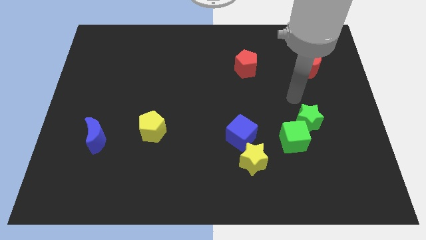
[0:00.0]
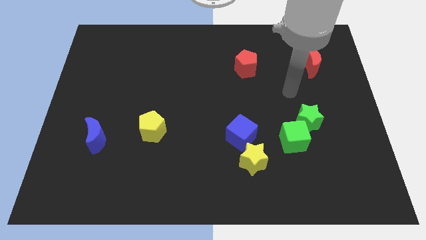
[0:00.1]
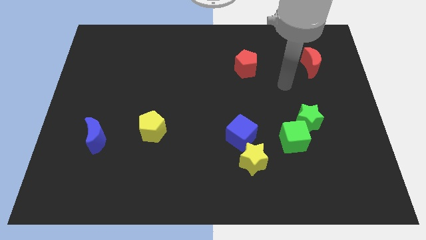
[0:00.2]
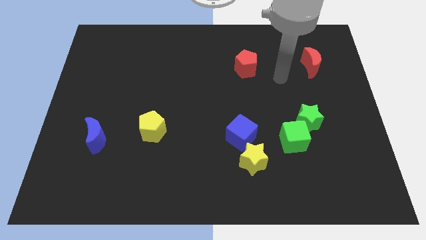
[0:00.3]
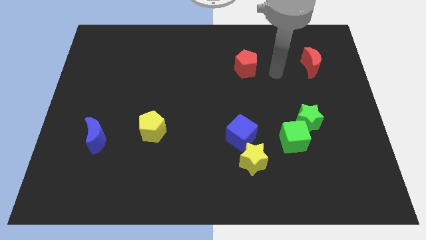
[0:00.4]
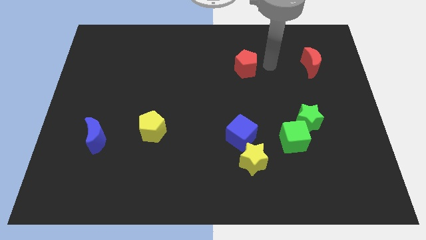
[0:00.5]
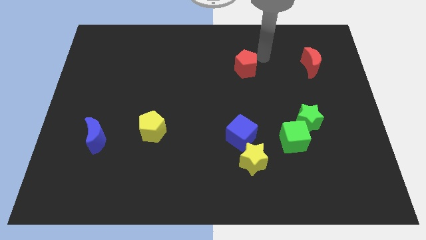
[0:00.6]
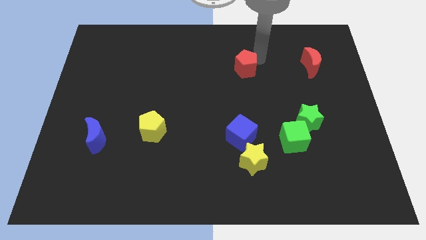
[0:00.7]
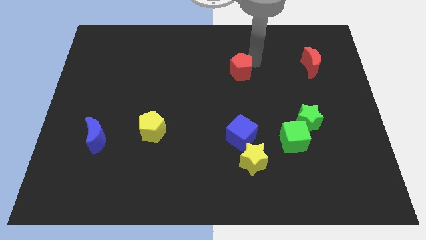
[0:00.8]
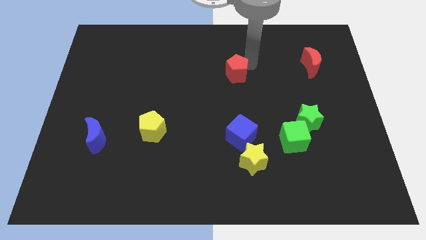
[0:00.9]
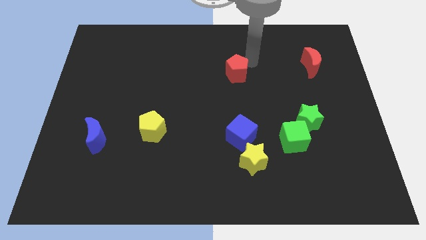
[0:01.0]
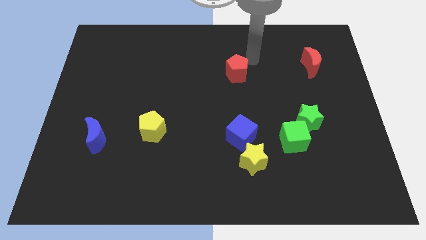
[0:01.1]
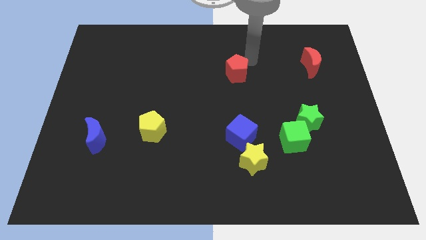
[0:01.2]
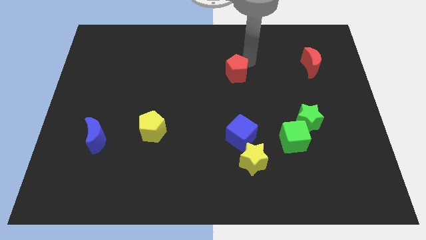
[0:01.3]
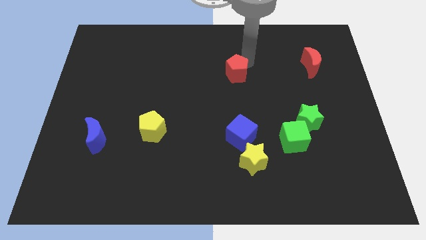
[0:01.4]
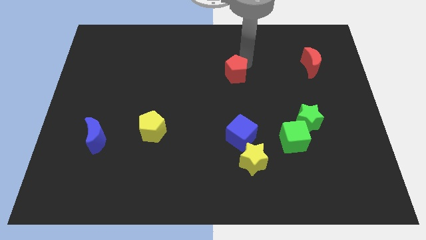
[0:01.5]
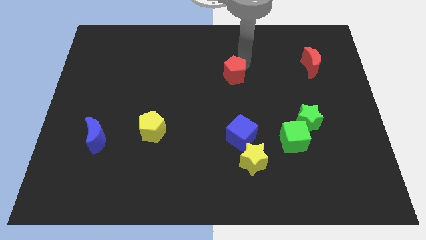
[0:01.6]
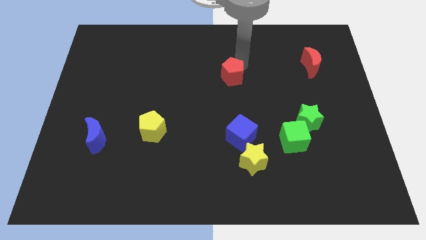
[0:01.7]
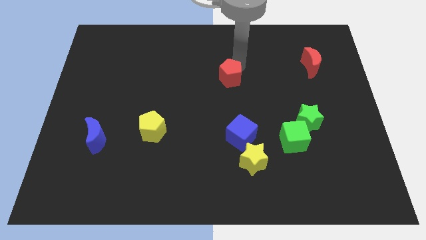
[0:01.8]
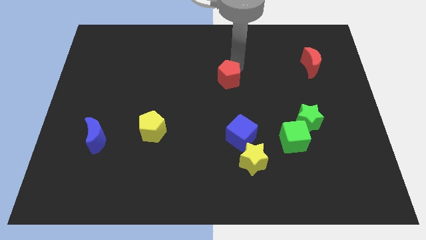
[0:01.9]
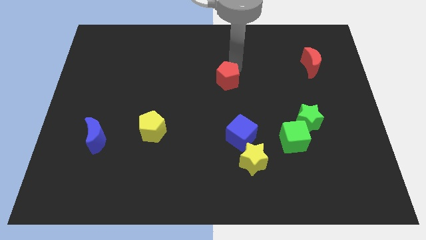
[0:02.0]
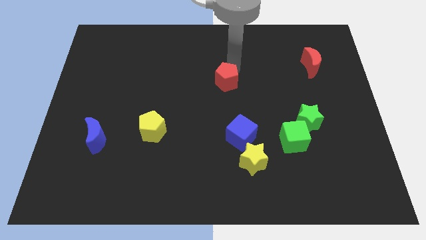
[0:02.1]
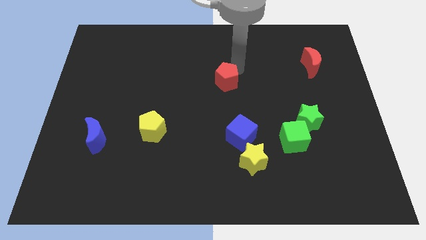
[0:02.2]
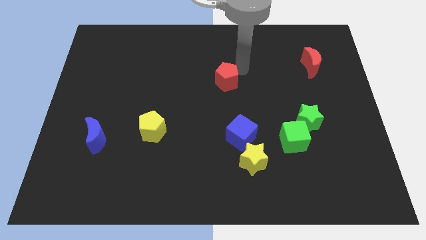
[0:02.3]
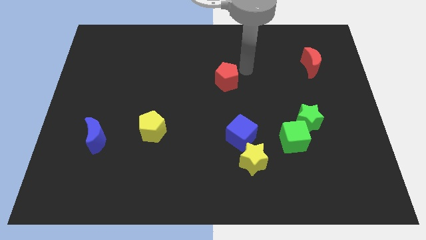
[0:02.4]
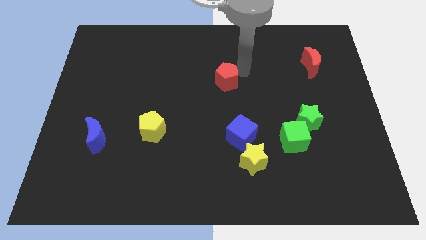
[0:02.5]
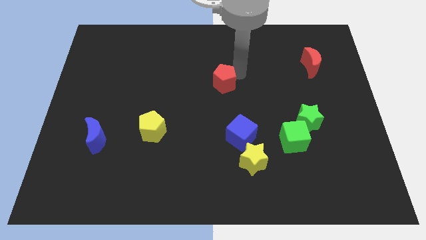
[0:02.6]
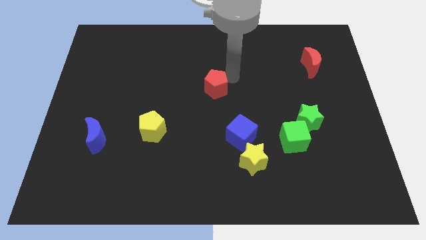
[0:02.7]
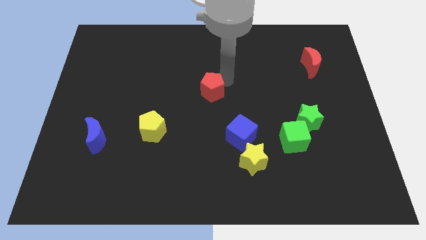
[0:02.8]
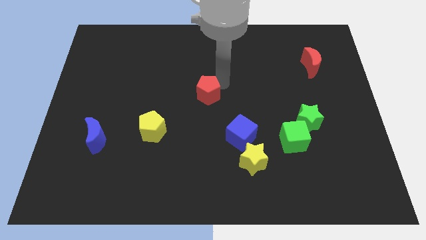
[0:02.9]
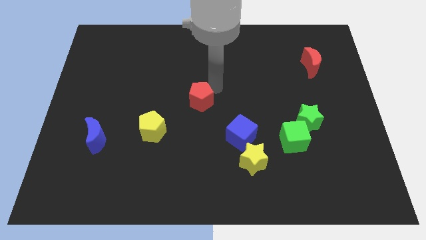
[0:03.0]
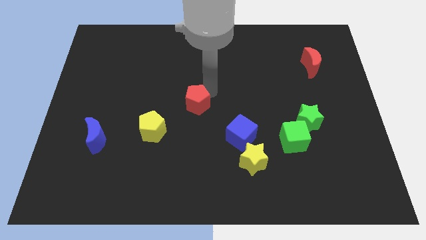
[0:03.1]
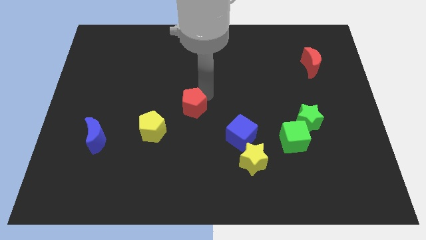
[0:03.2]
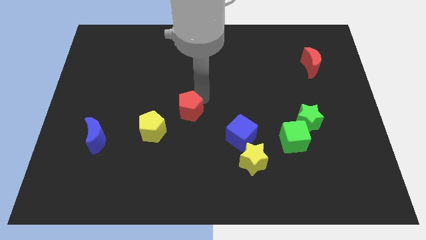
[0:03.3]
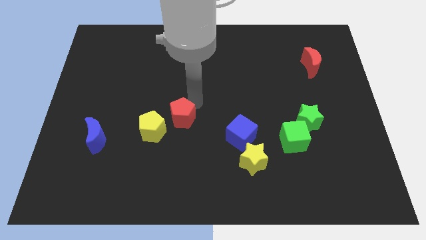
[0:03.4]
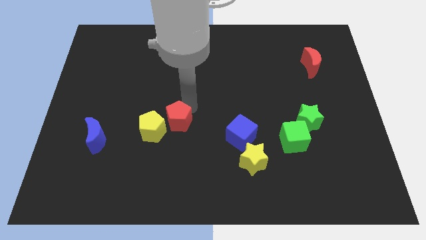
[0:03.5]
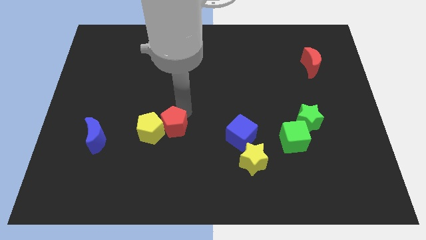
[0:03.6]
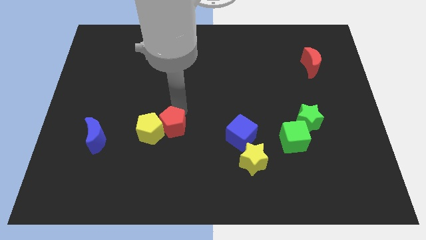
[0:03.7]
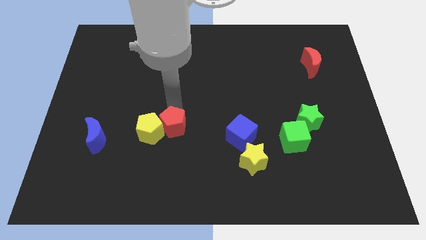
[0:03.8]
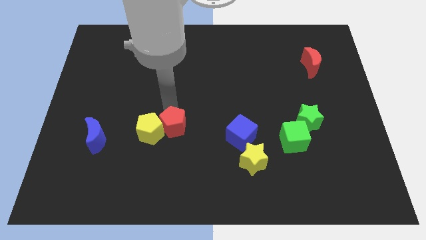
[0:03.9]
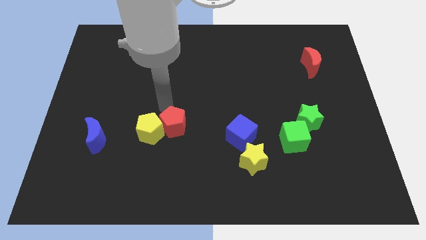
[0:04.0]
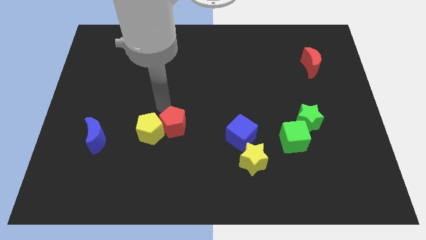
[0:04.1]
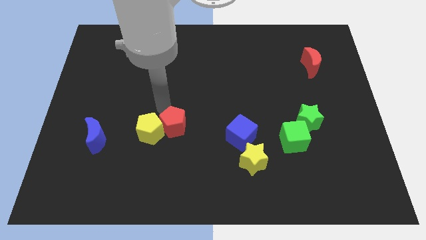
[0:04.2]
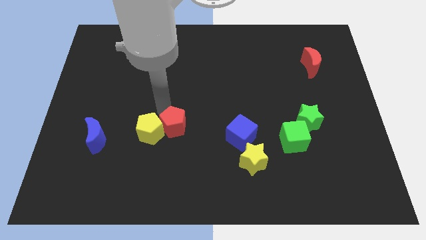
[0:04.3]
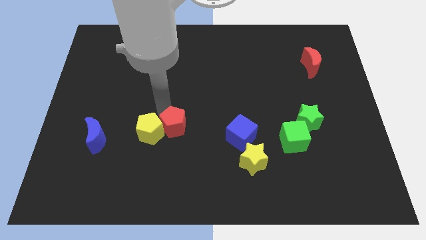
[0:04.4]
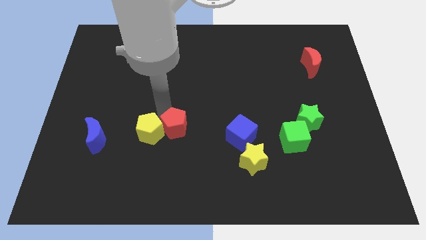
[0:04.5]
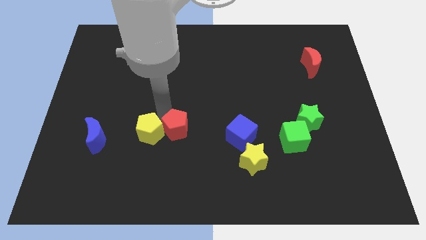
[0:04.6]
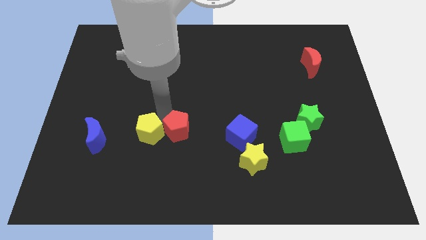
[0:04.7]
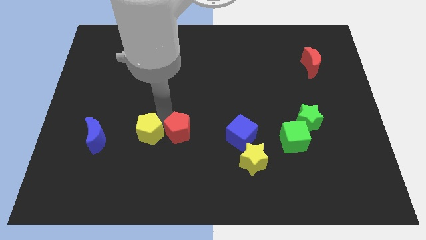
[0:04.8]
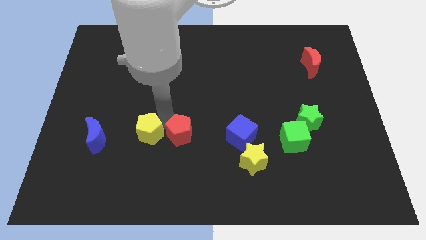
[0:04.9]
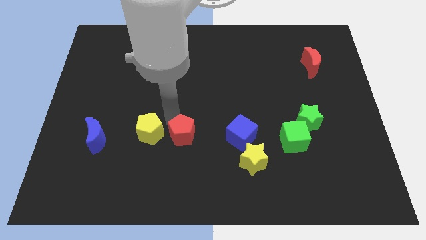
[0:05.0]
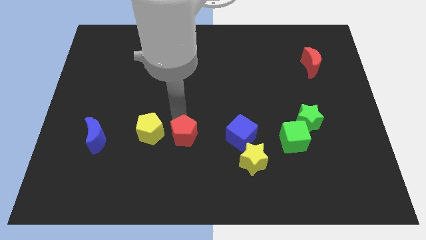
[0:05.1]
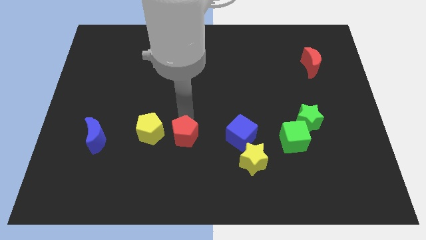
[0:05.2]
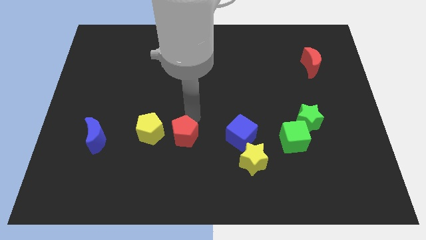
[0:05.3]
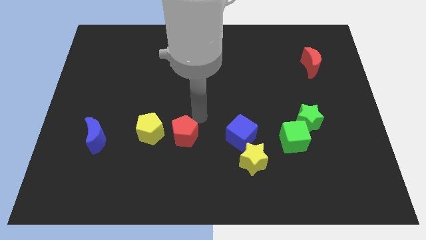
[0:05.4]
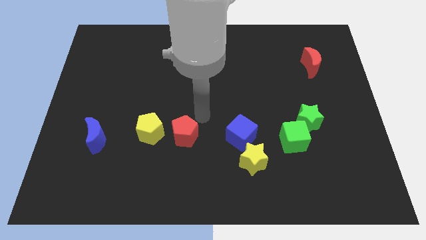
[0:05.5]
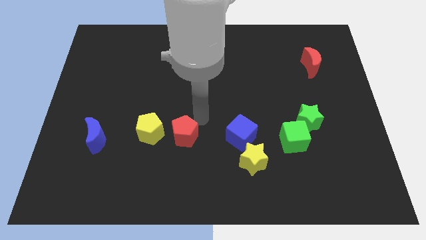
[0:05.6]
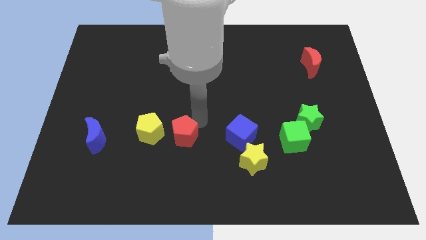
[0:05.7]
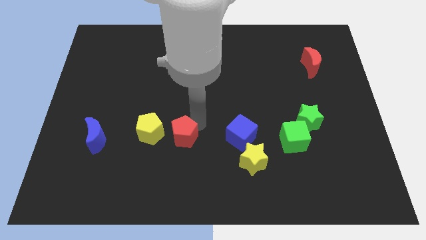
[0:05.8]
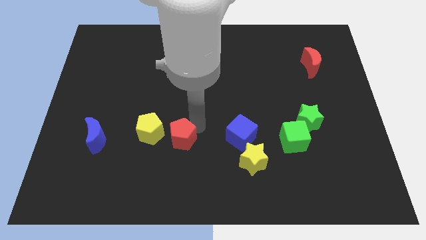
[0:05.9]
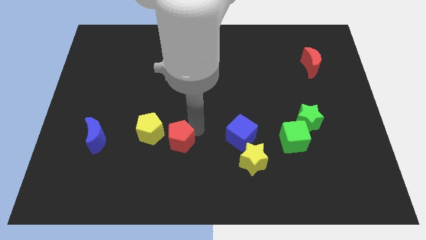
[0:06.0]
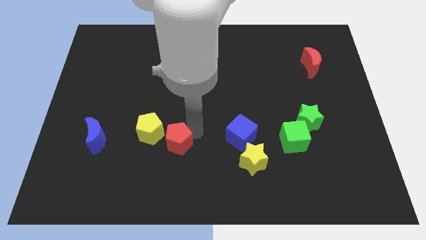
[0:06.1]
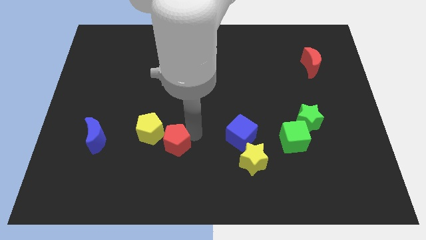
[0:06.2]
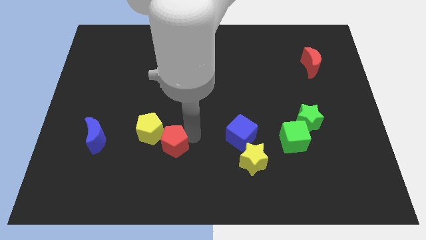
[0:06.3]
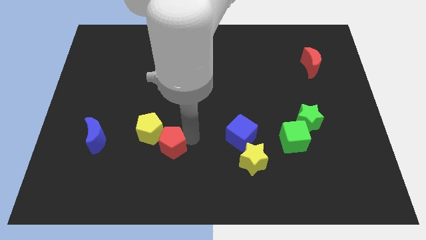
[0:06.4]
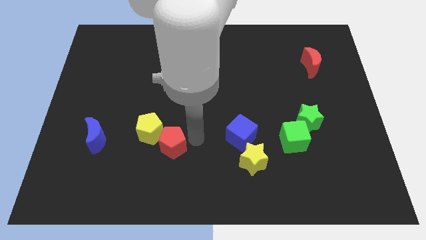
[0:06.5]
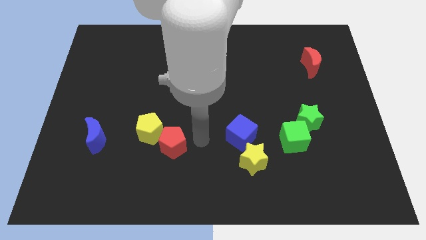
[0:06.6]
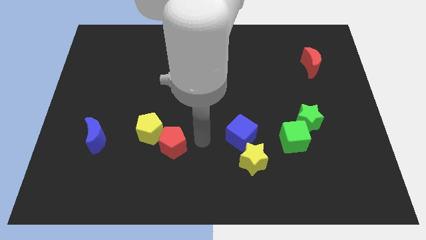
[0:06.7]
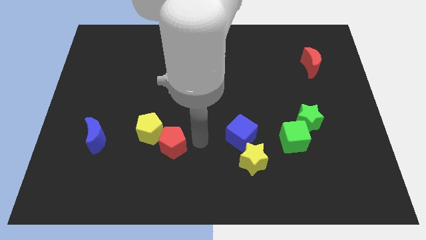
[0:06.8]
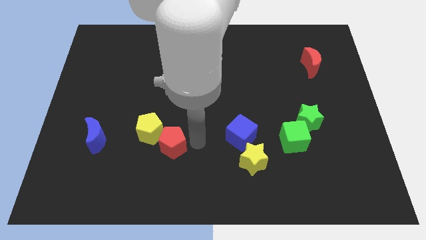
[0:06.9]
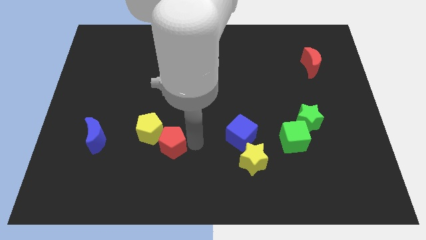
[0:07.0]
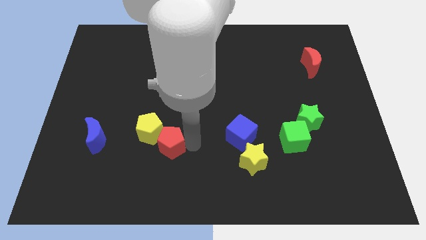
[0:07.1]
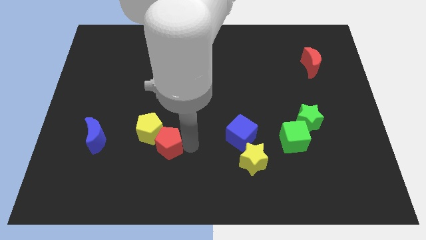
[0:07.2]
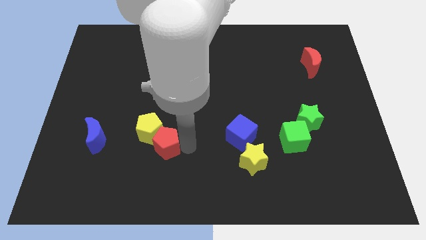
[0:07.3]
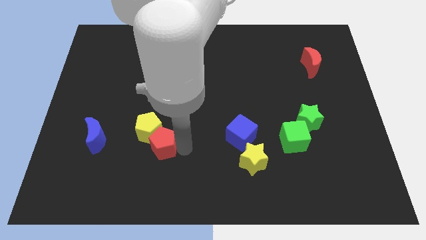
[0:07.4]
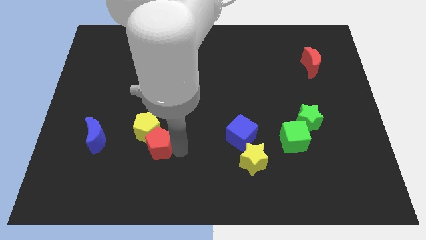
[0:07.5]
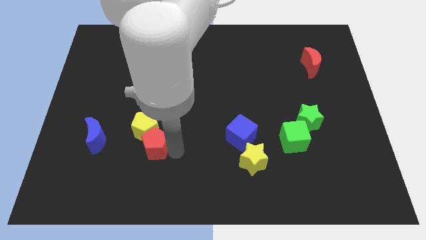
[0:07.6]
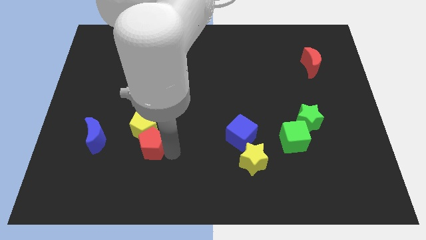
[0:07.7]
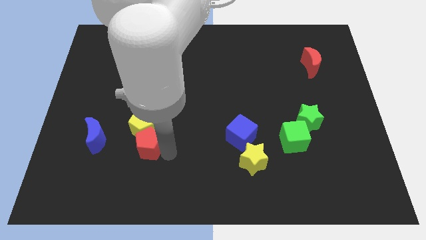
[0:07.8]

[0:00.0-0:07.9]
push the red pentagon to the bottom left of the yellow pentagon
